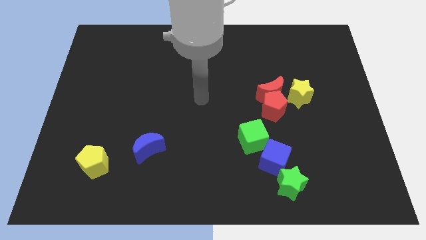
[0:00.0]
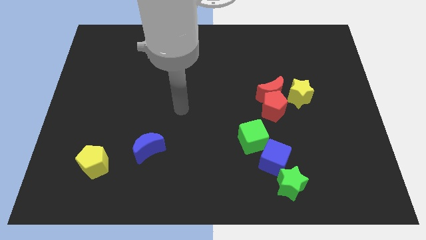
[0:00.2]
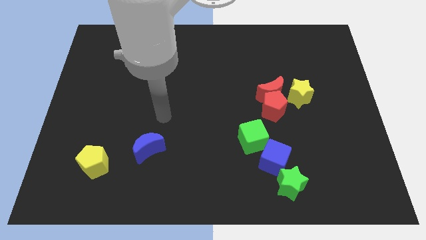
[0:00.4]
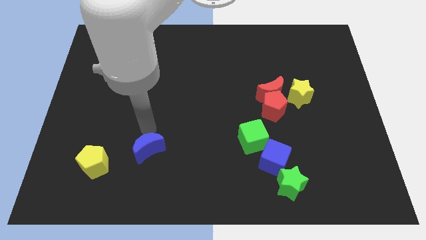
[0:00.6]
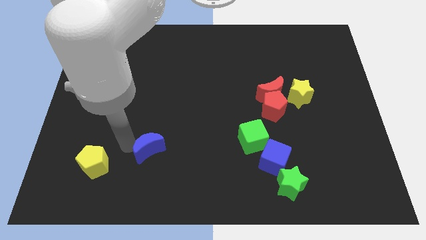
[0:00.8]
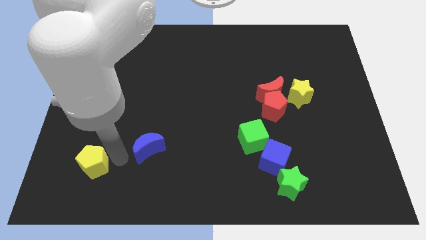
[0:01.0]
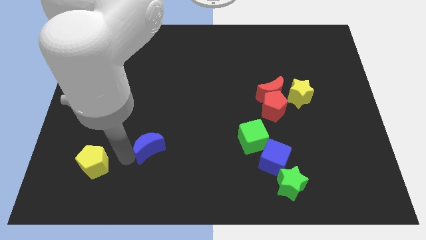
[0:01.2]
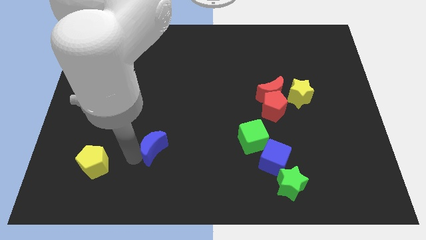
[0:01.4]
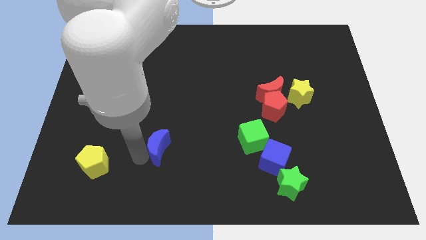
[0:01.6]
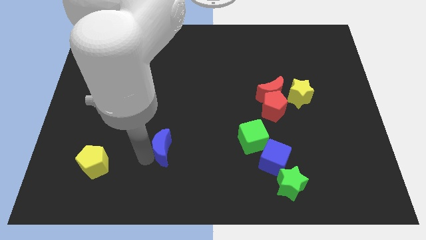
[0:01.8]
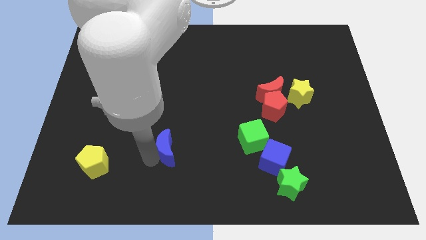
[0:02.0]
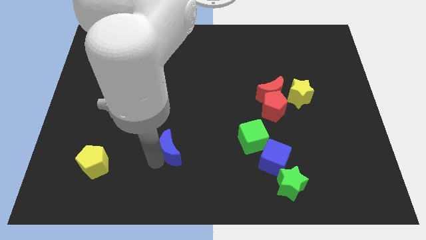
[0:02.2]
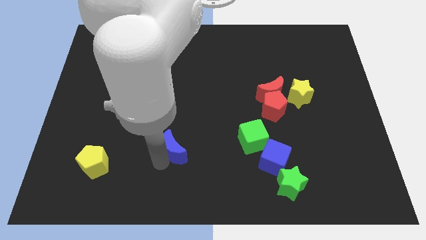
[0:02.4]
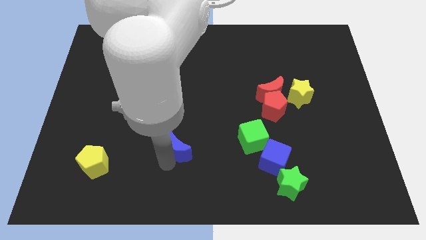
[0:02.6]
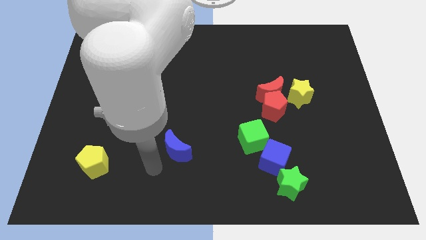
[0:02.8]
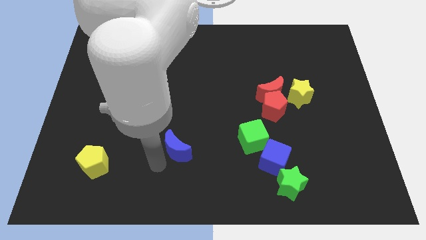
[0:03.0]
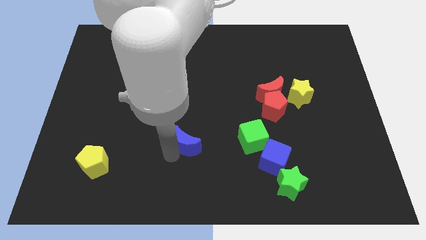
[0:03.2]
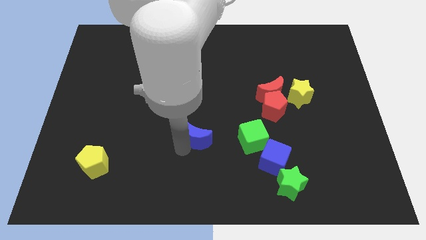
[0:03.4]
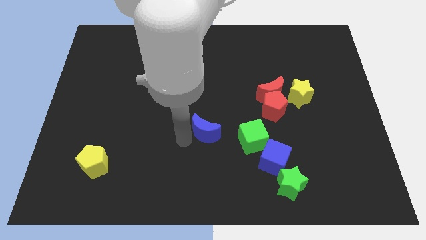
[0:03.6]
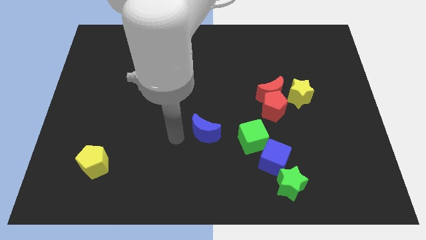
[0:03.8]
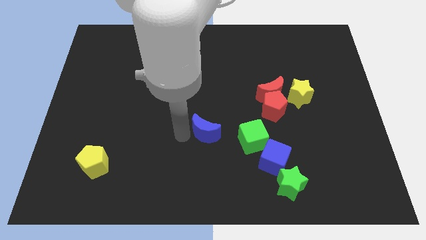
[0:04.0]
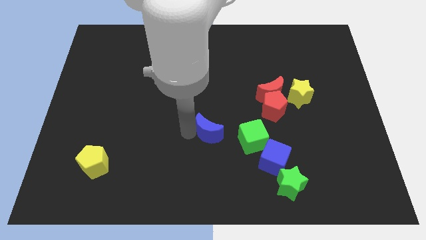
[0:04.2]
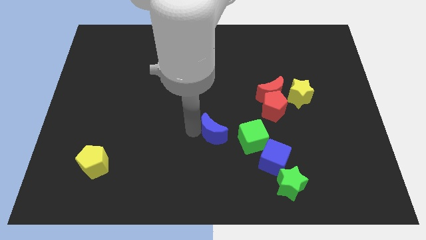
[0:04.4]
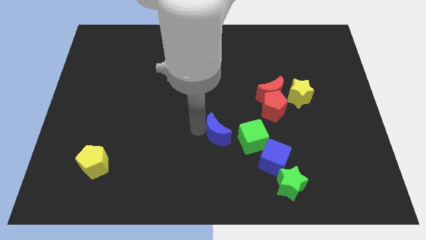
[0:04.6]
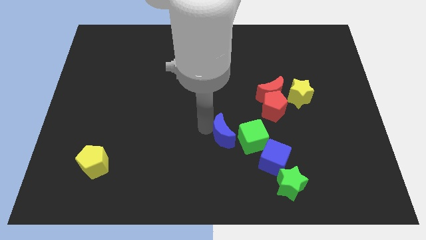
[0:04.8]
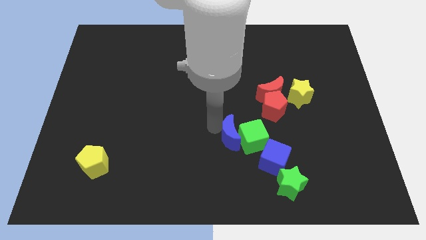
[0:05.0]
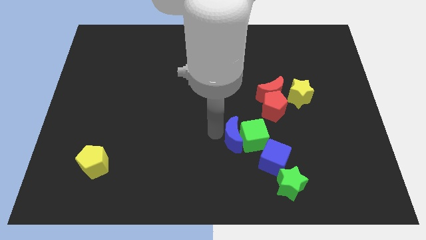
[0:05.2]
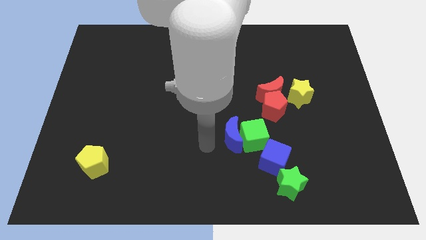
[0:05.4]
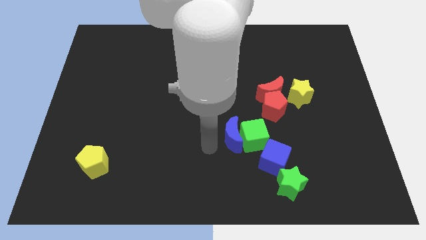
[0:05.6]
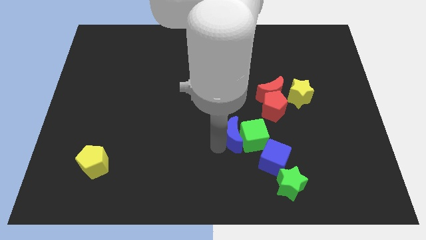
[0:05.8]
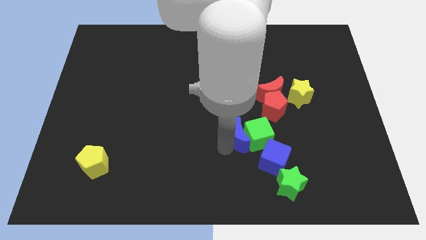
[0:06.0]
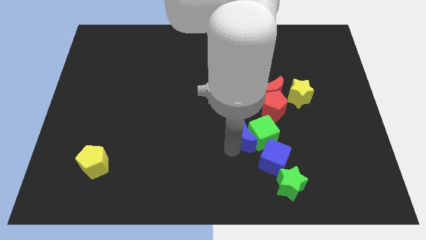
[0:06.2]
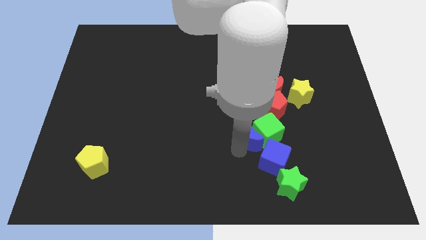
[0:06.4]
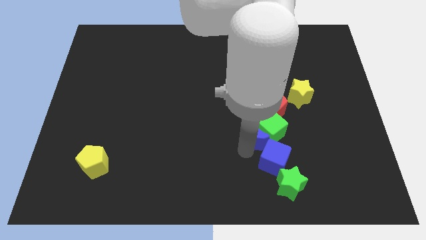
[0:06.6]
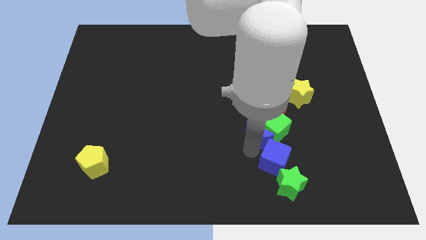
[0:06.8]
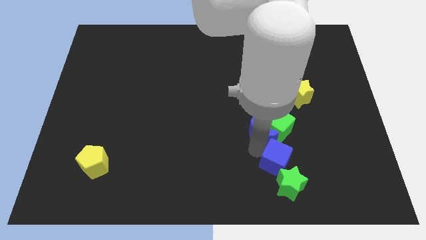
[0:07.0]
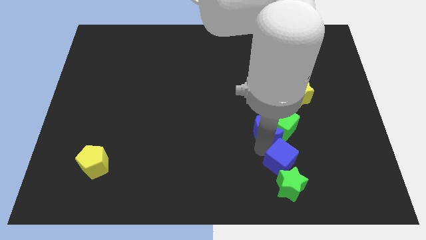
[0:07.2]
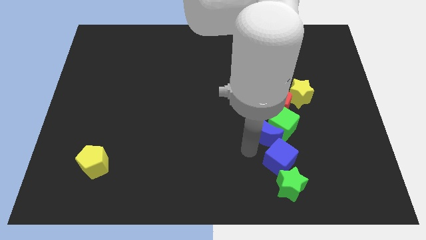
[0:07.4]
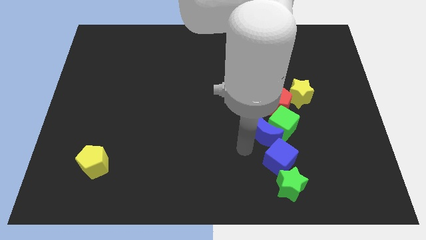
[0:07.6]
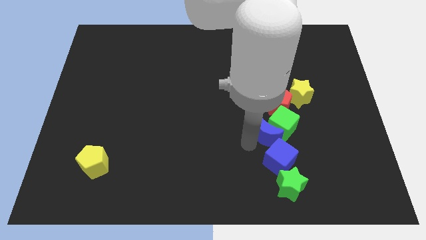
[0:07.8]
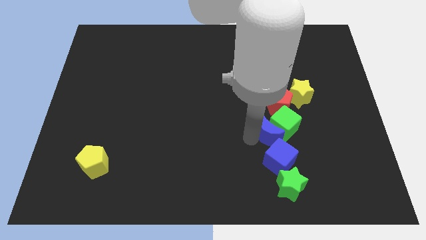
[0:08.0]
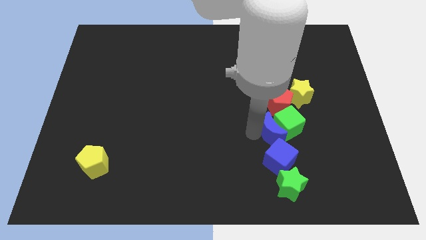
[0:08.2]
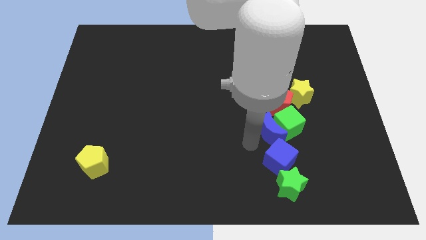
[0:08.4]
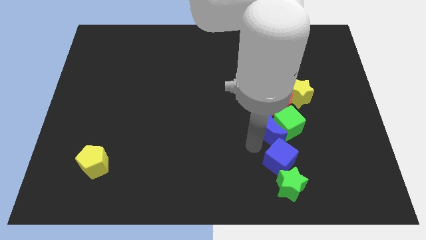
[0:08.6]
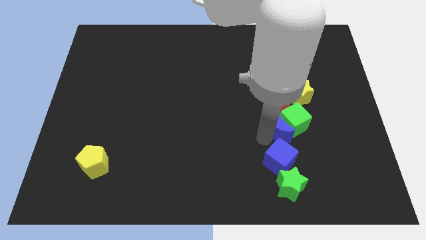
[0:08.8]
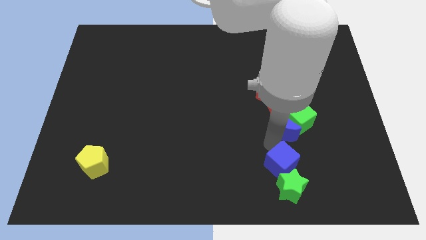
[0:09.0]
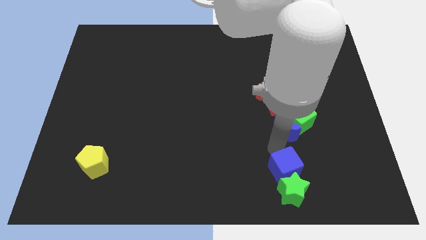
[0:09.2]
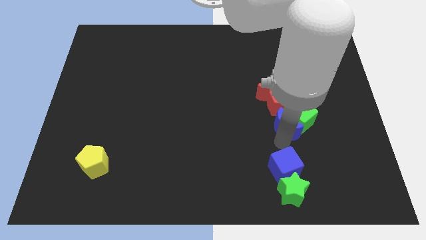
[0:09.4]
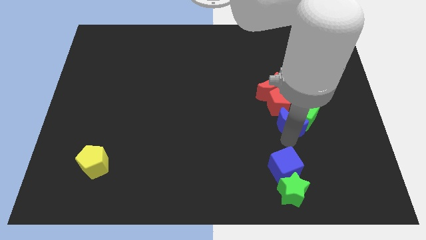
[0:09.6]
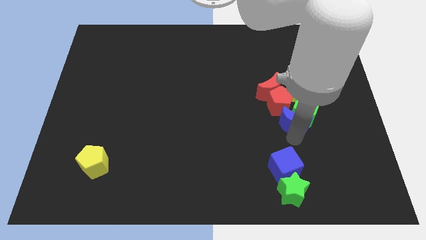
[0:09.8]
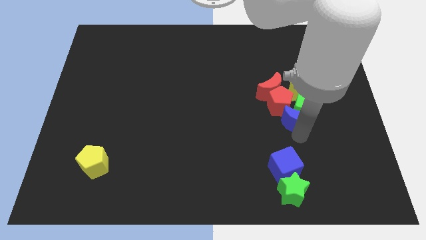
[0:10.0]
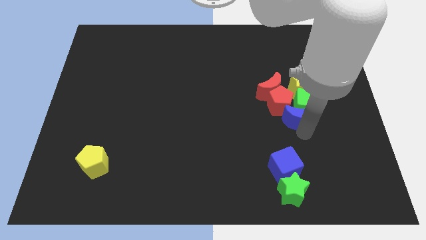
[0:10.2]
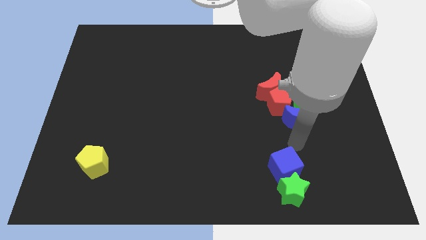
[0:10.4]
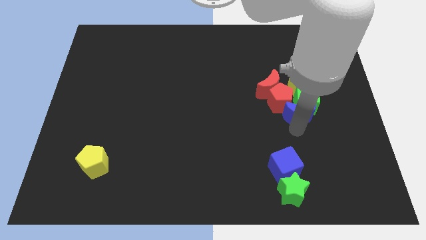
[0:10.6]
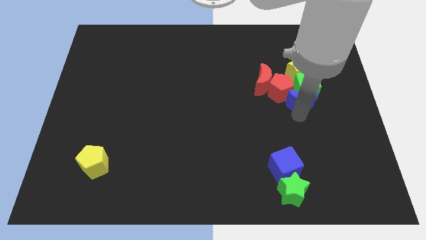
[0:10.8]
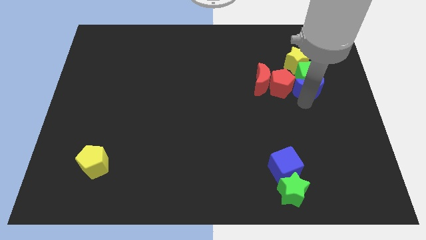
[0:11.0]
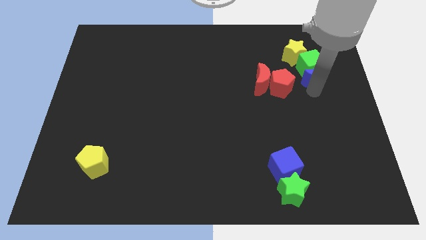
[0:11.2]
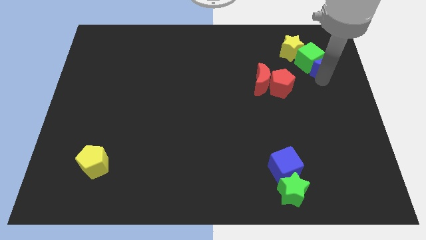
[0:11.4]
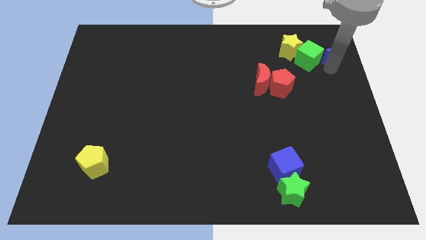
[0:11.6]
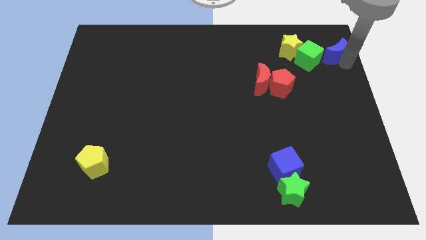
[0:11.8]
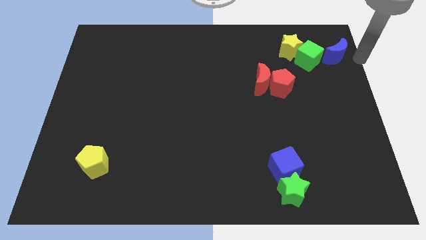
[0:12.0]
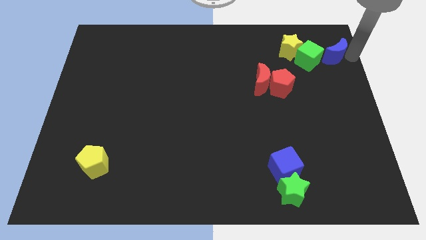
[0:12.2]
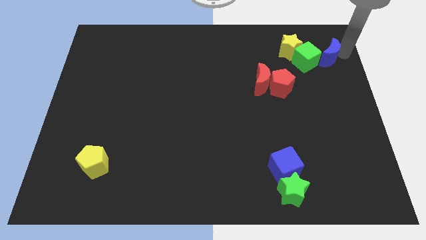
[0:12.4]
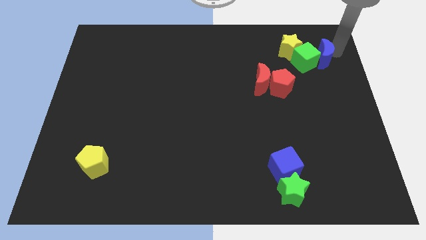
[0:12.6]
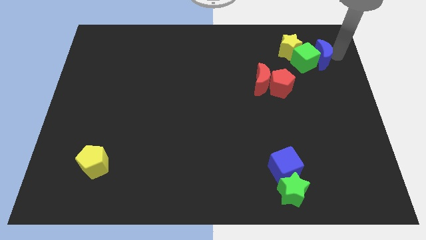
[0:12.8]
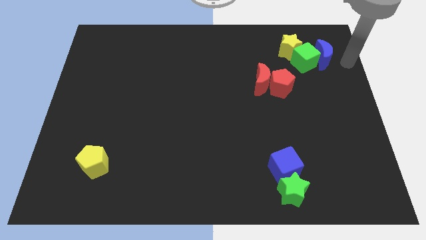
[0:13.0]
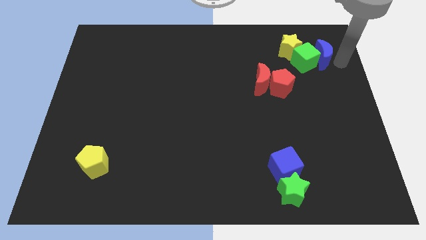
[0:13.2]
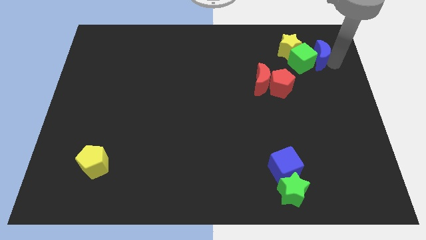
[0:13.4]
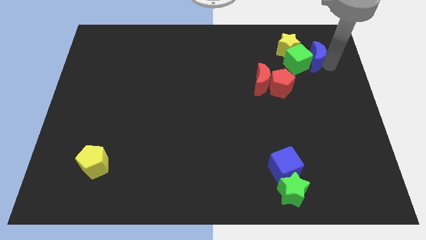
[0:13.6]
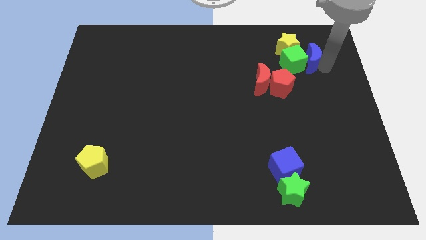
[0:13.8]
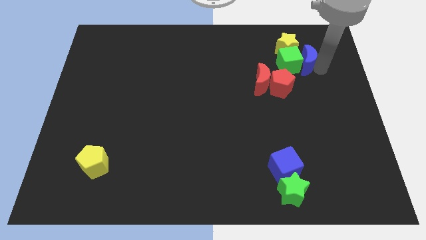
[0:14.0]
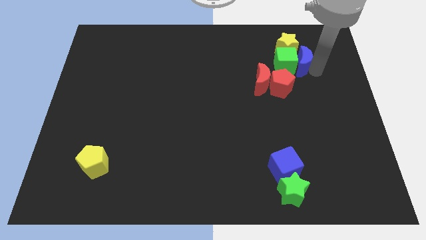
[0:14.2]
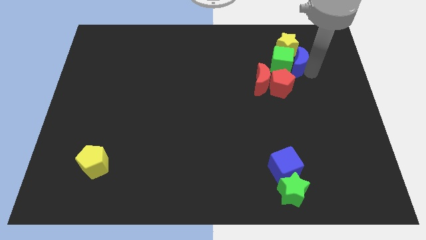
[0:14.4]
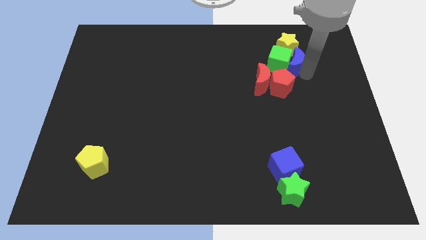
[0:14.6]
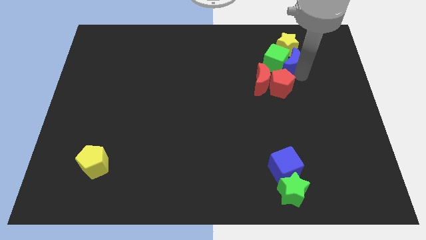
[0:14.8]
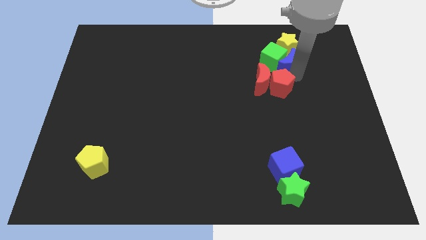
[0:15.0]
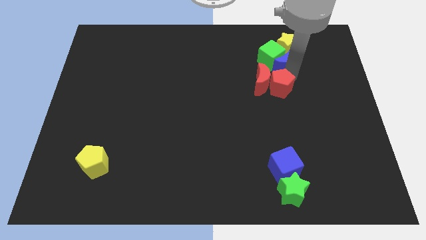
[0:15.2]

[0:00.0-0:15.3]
slide the blue moon towards the yellow star
